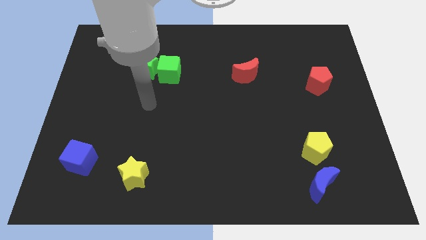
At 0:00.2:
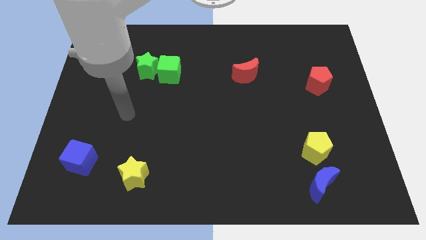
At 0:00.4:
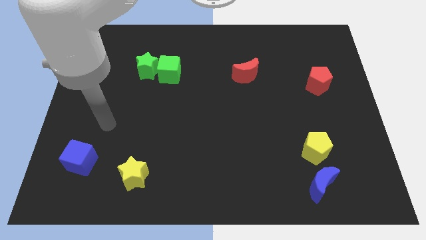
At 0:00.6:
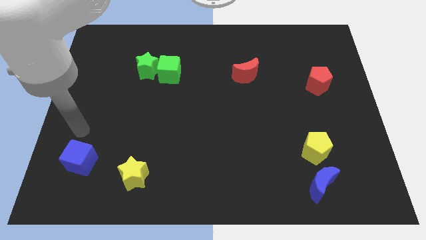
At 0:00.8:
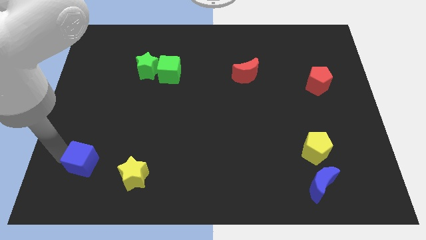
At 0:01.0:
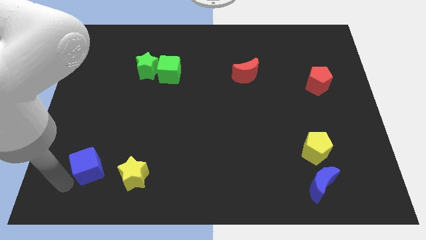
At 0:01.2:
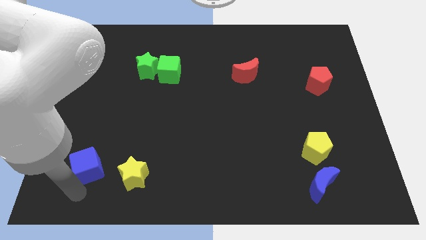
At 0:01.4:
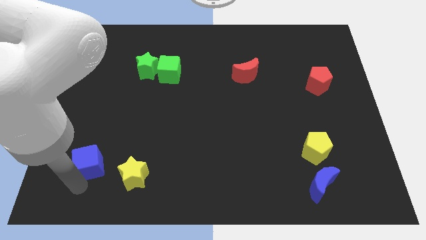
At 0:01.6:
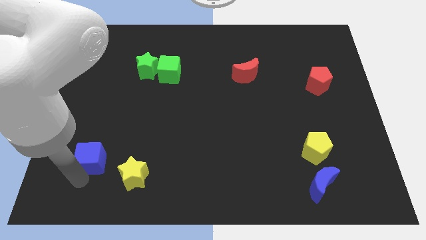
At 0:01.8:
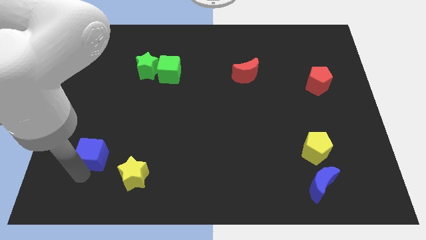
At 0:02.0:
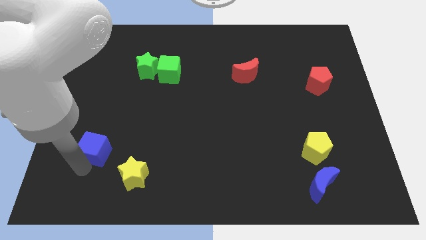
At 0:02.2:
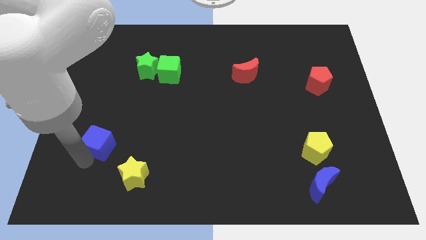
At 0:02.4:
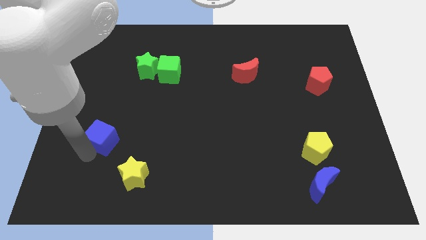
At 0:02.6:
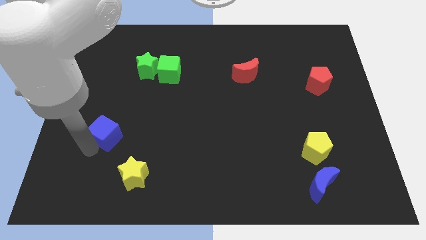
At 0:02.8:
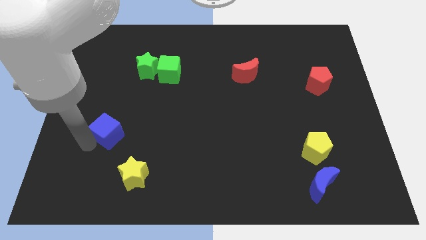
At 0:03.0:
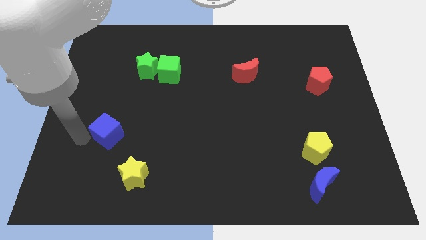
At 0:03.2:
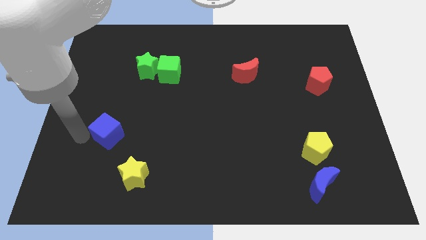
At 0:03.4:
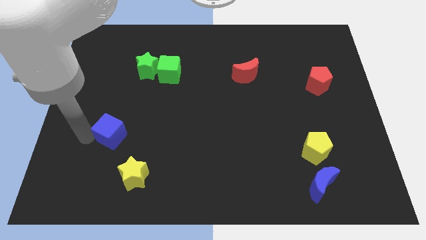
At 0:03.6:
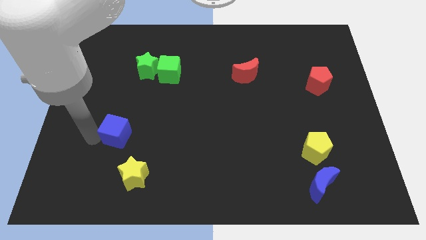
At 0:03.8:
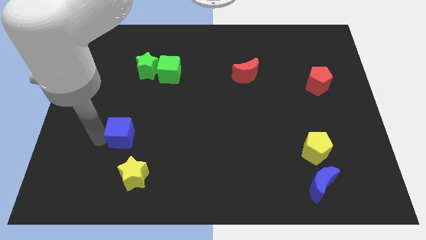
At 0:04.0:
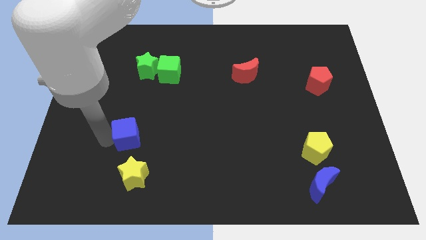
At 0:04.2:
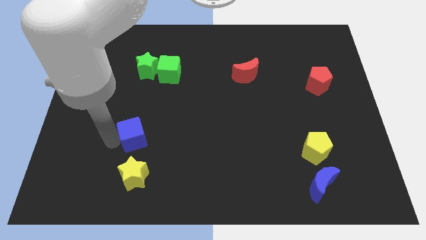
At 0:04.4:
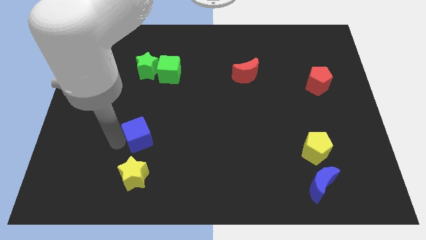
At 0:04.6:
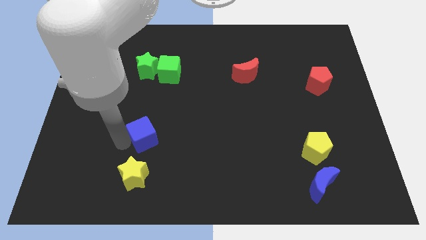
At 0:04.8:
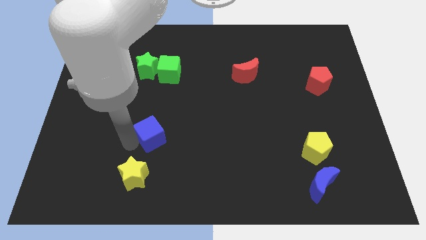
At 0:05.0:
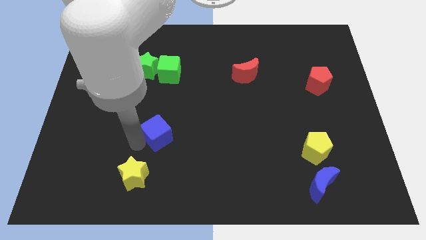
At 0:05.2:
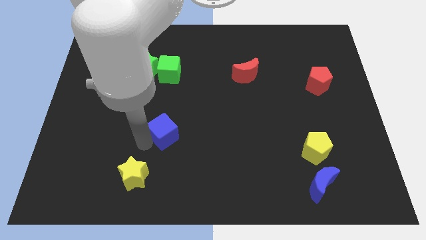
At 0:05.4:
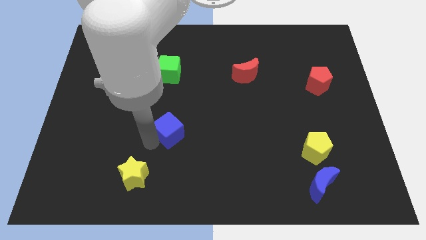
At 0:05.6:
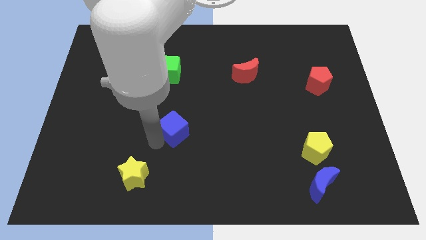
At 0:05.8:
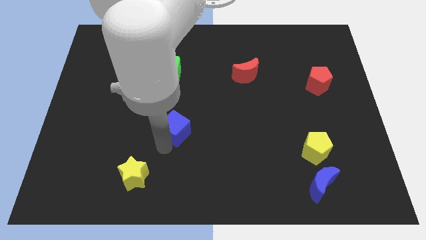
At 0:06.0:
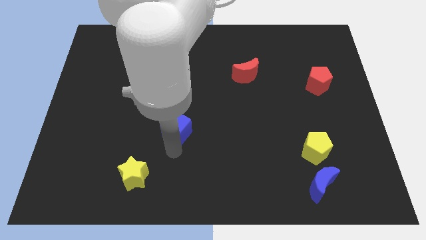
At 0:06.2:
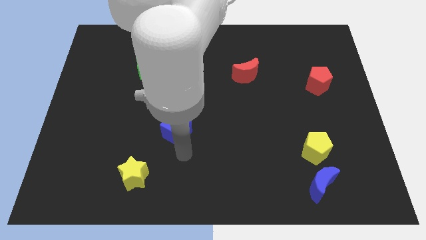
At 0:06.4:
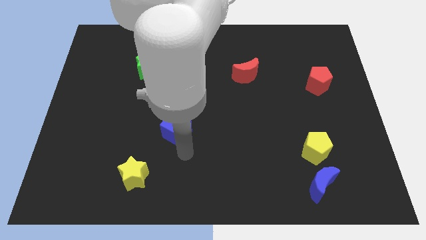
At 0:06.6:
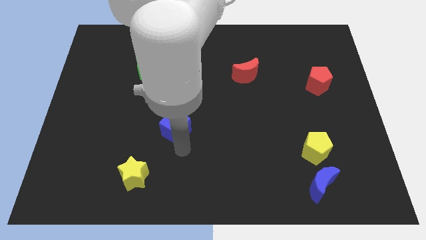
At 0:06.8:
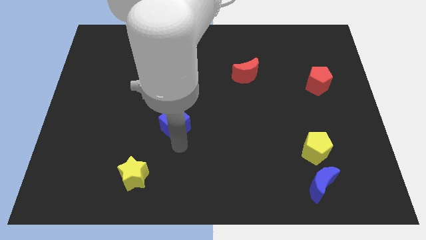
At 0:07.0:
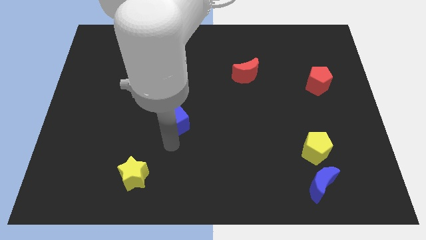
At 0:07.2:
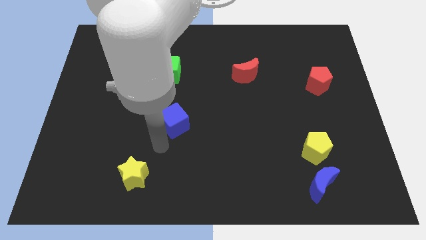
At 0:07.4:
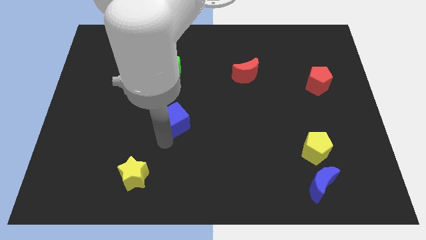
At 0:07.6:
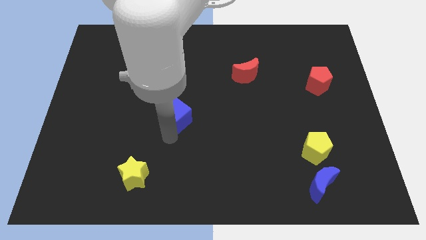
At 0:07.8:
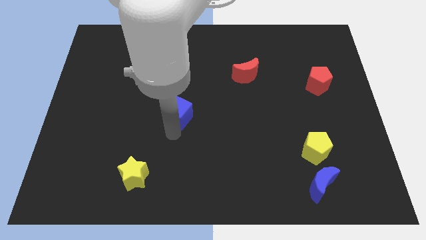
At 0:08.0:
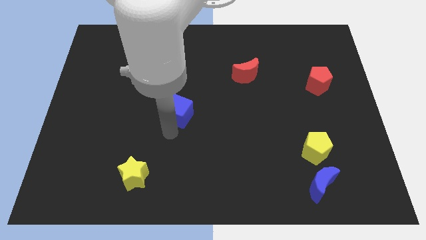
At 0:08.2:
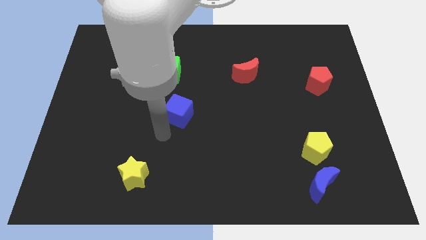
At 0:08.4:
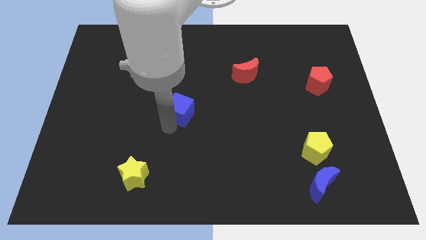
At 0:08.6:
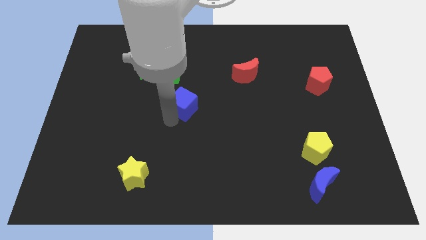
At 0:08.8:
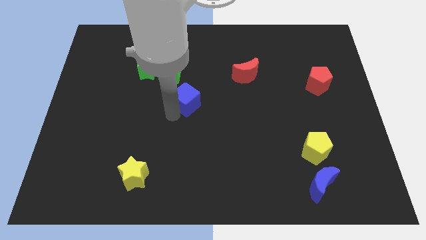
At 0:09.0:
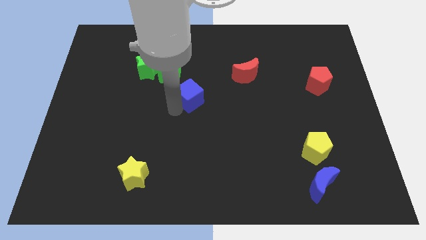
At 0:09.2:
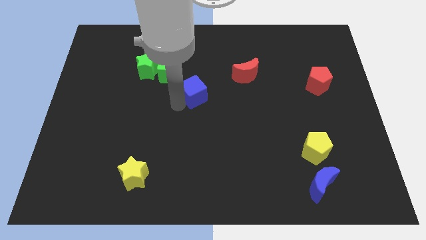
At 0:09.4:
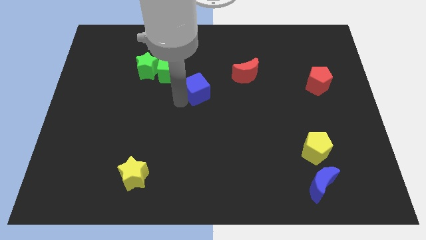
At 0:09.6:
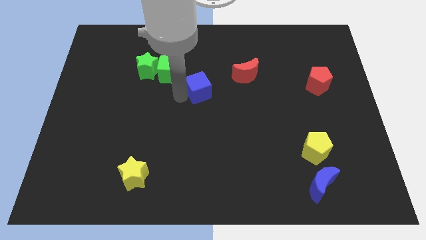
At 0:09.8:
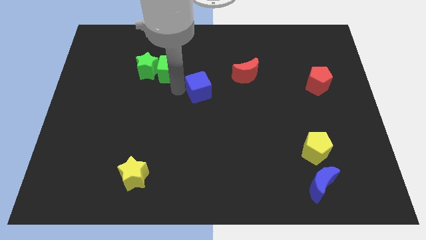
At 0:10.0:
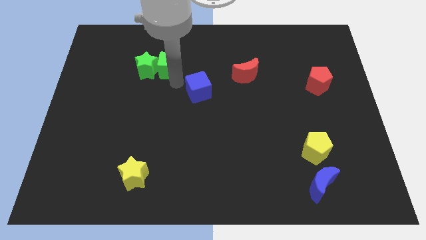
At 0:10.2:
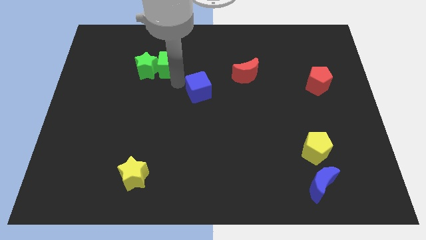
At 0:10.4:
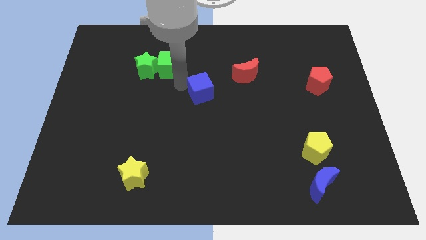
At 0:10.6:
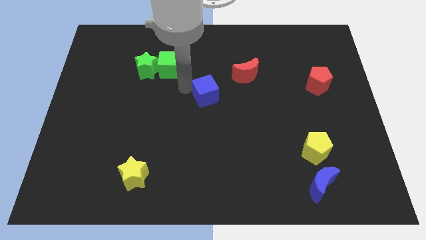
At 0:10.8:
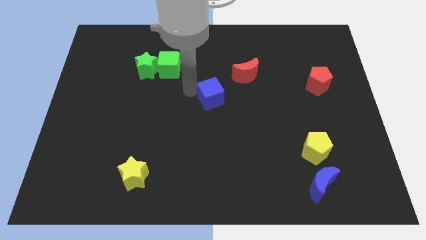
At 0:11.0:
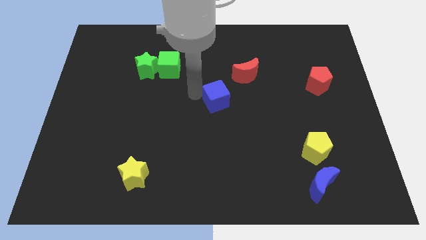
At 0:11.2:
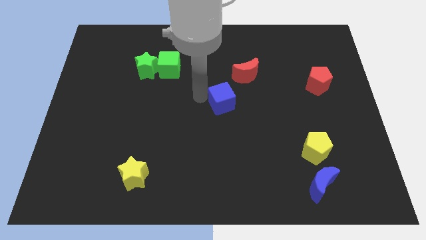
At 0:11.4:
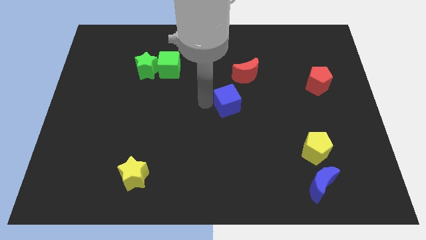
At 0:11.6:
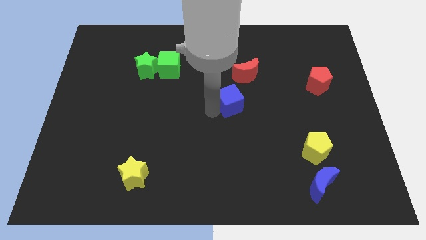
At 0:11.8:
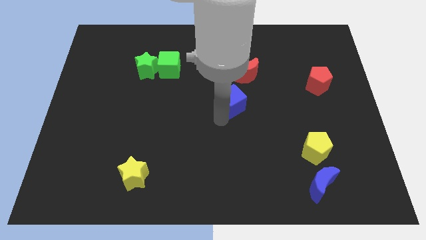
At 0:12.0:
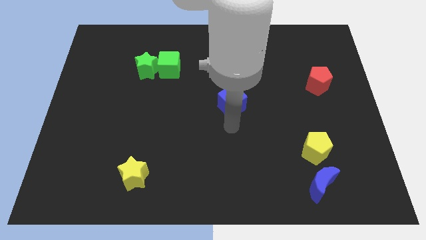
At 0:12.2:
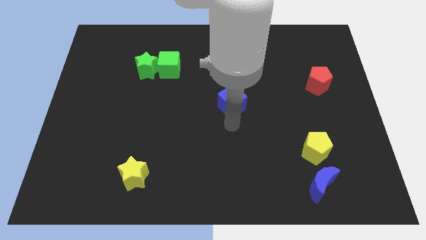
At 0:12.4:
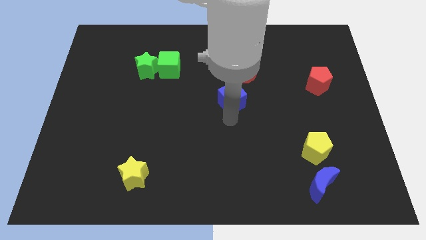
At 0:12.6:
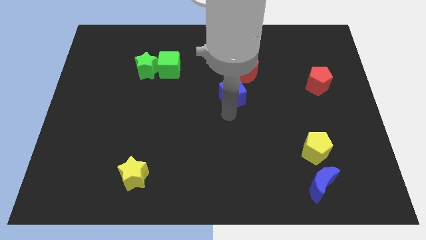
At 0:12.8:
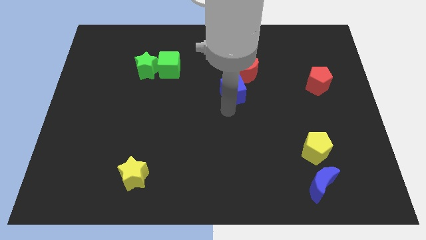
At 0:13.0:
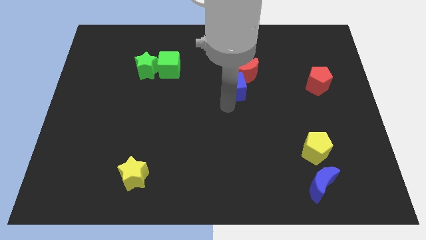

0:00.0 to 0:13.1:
slide the blue cube close to the red moon
